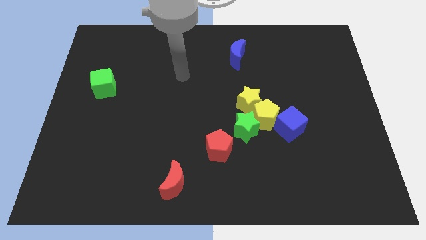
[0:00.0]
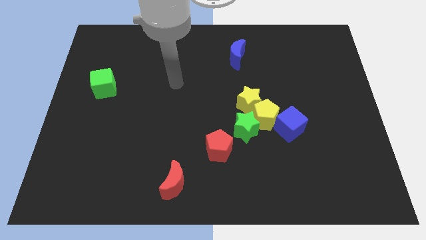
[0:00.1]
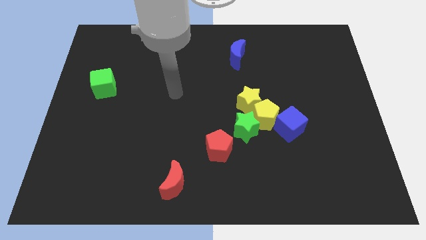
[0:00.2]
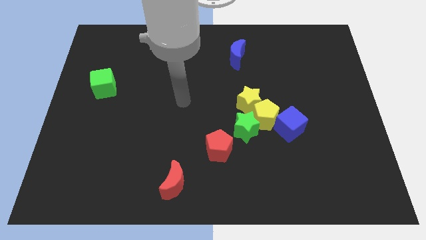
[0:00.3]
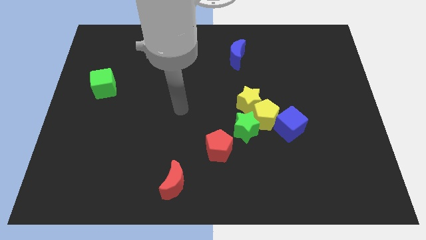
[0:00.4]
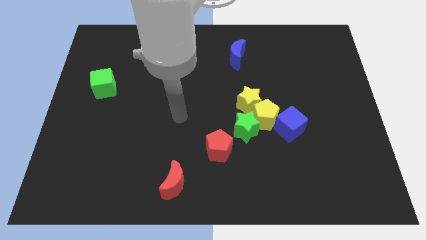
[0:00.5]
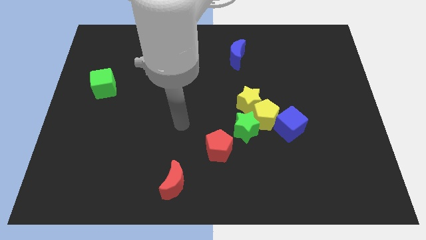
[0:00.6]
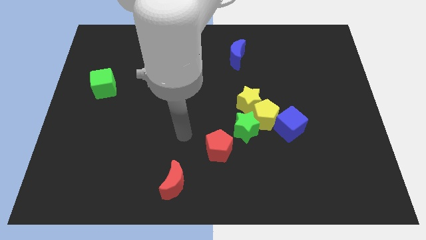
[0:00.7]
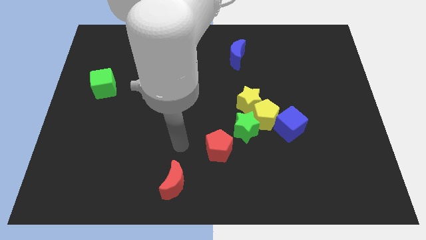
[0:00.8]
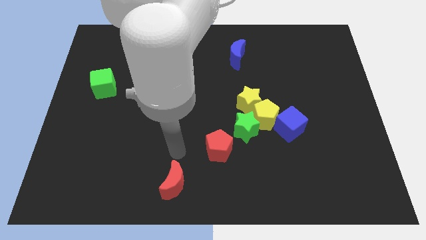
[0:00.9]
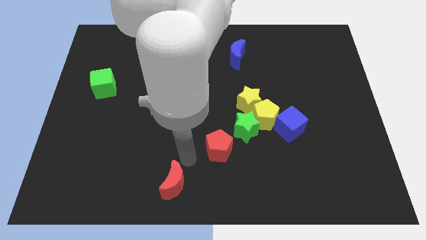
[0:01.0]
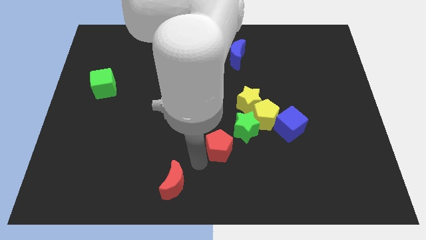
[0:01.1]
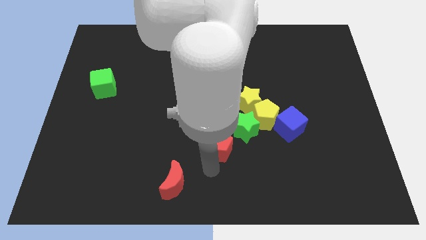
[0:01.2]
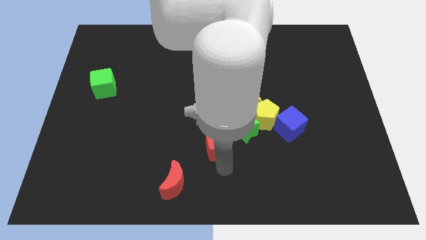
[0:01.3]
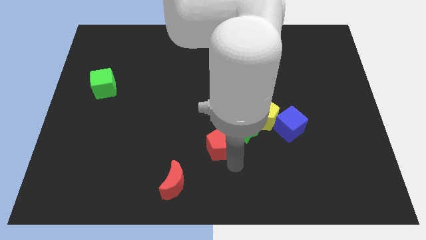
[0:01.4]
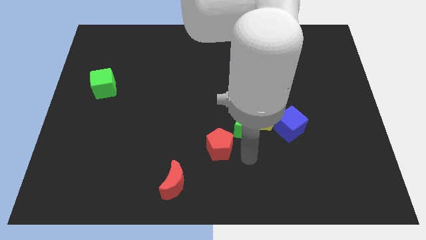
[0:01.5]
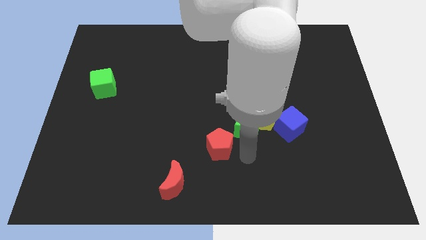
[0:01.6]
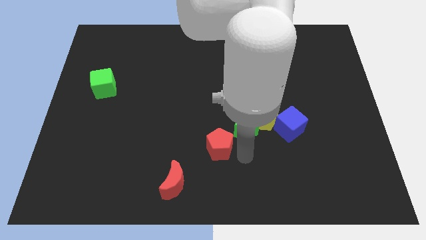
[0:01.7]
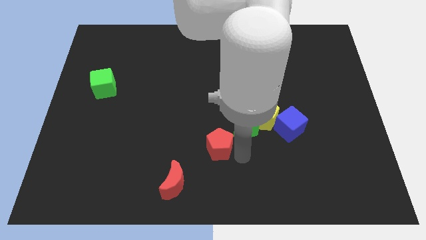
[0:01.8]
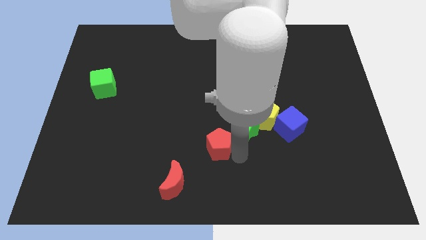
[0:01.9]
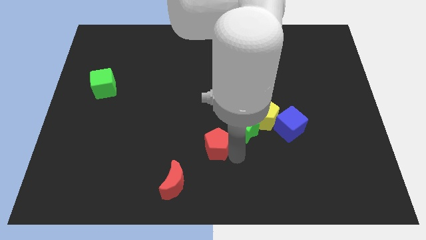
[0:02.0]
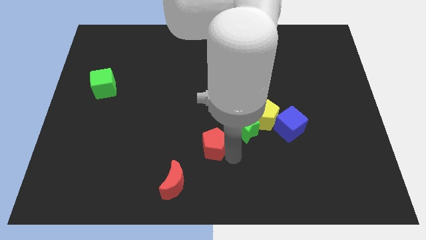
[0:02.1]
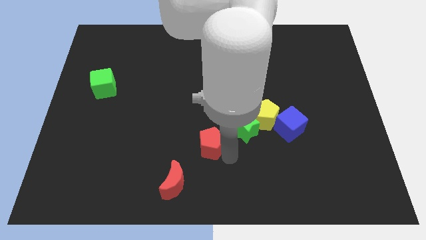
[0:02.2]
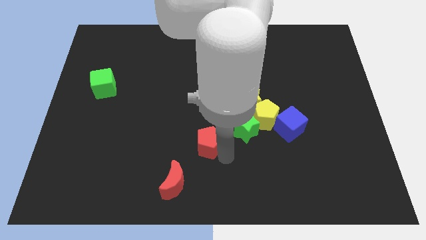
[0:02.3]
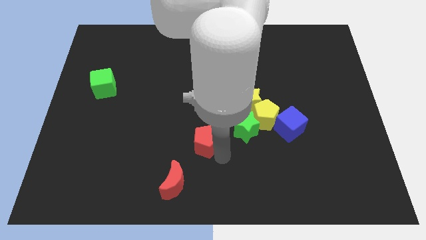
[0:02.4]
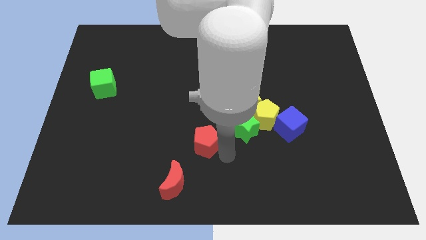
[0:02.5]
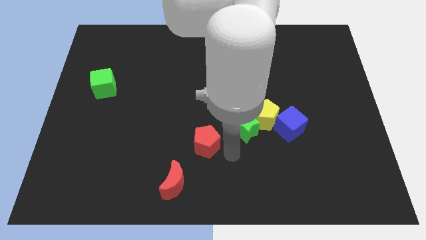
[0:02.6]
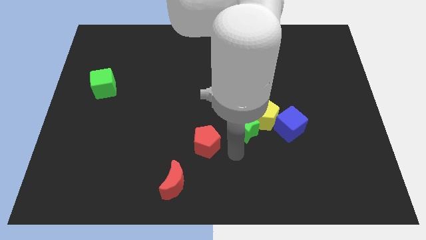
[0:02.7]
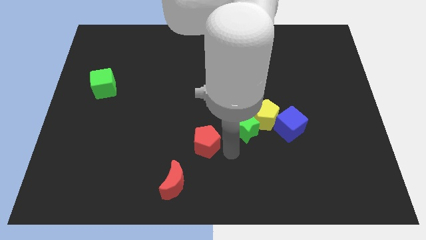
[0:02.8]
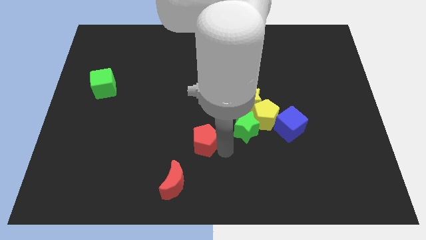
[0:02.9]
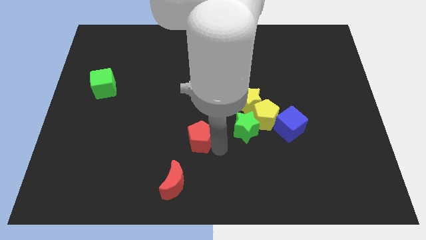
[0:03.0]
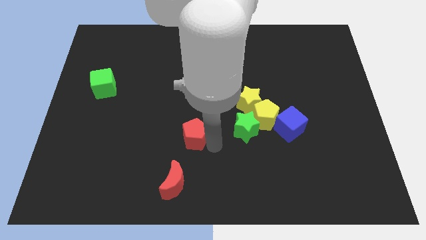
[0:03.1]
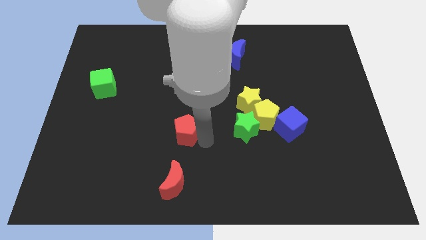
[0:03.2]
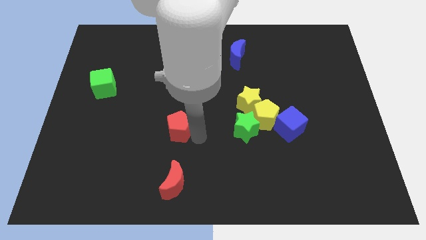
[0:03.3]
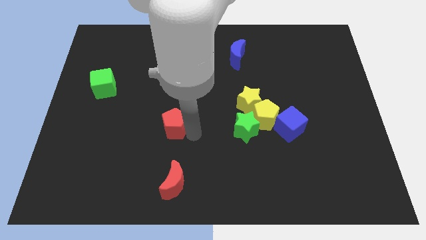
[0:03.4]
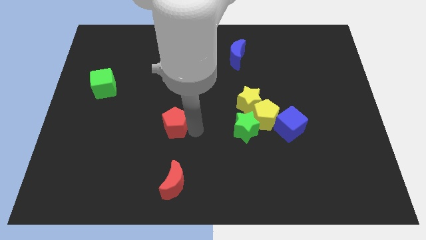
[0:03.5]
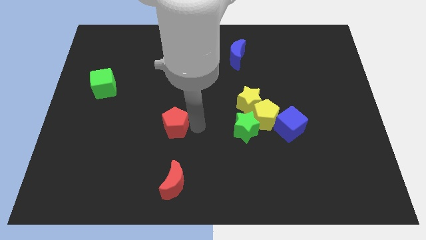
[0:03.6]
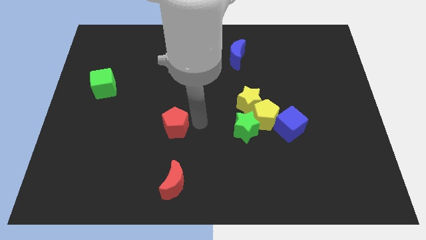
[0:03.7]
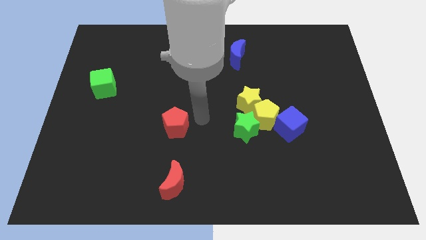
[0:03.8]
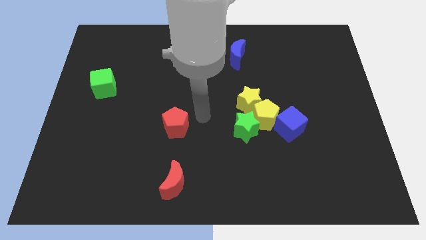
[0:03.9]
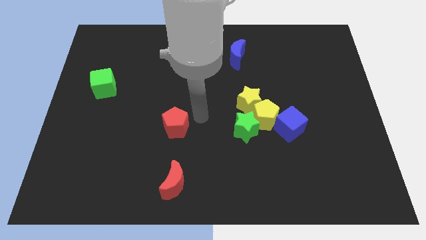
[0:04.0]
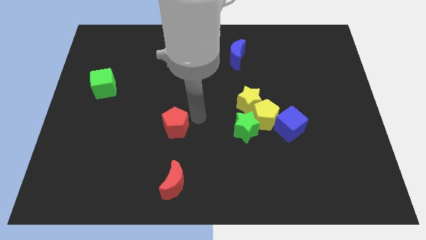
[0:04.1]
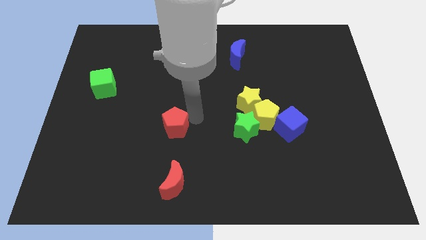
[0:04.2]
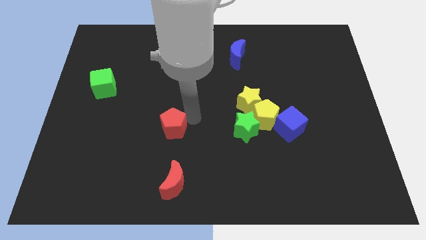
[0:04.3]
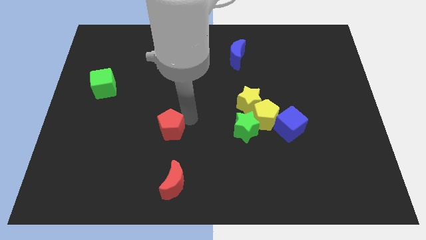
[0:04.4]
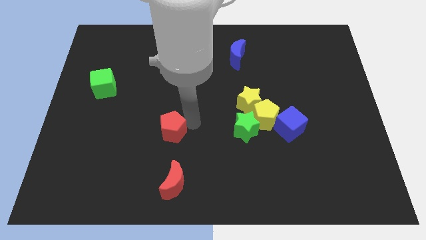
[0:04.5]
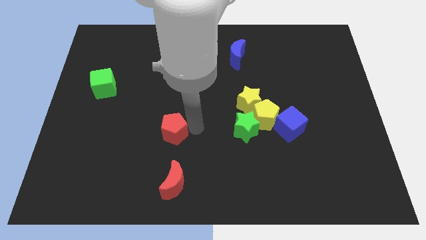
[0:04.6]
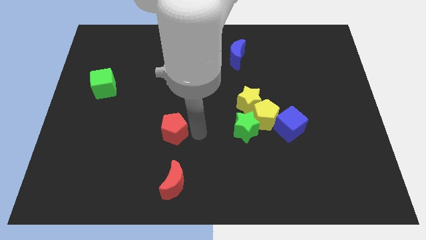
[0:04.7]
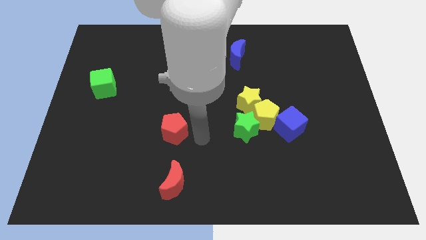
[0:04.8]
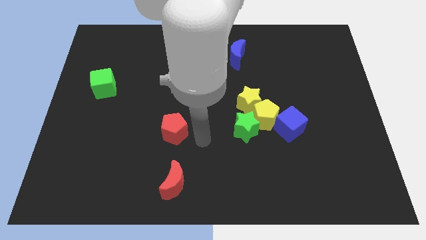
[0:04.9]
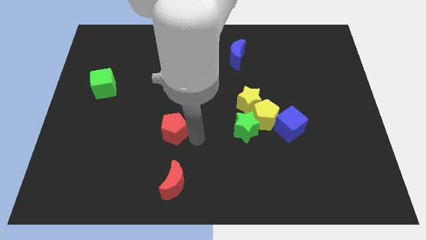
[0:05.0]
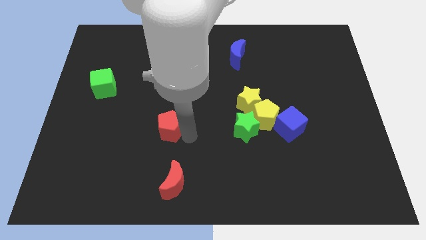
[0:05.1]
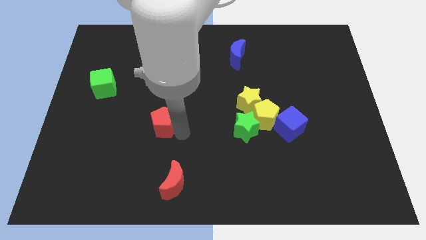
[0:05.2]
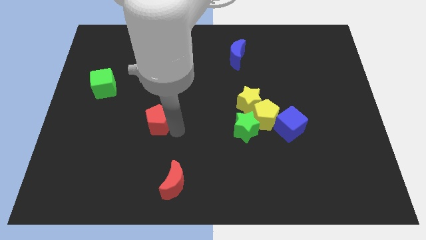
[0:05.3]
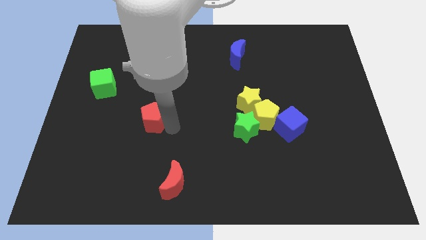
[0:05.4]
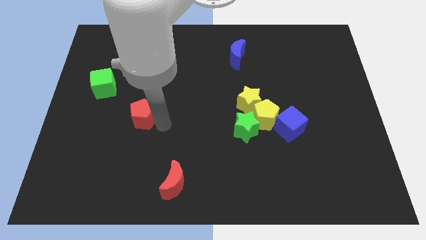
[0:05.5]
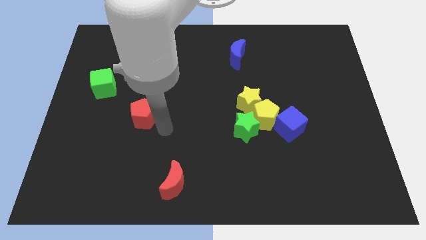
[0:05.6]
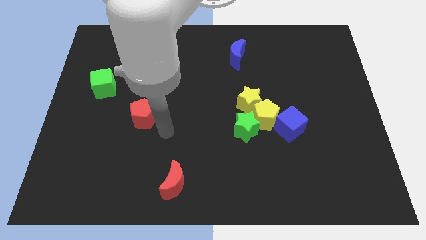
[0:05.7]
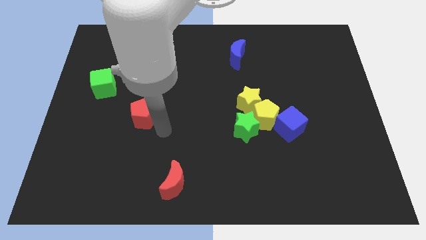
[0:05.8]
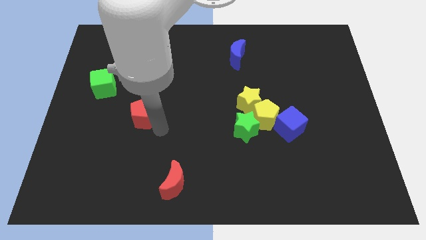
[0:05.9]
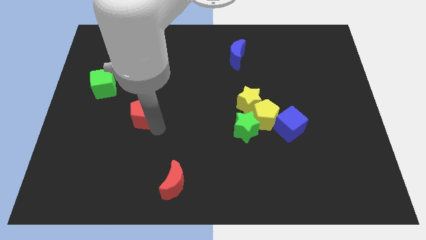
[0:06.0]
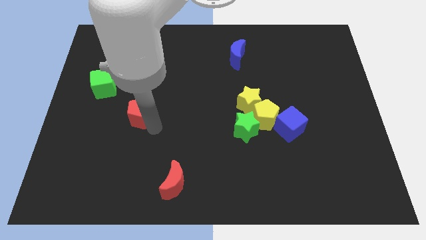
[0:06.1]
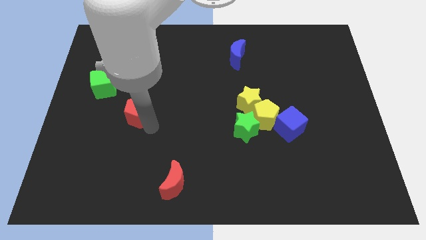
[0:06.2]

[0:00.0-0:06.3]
slide the red pentagon diagonally down and to the right of the green cube
